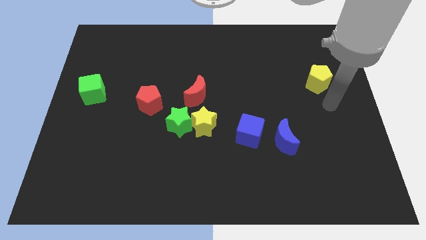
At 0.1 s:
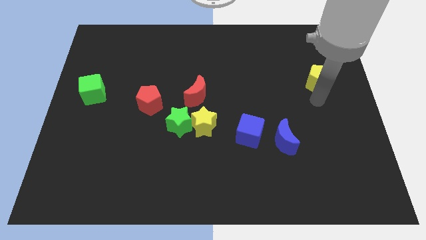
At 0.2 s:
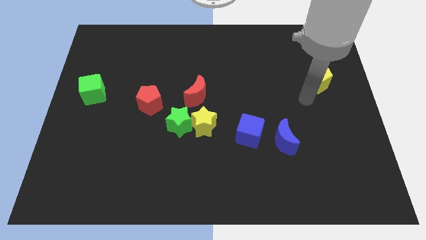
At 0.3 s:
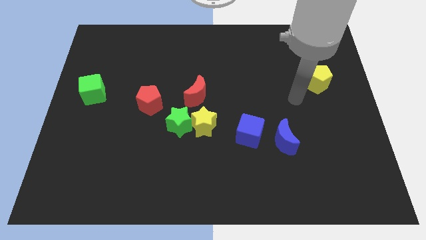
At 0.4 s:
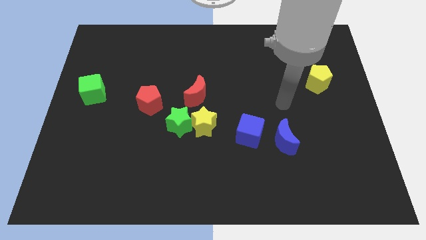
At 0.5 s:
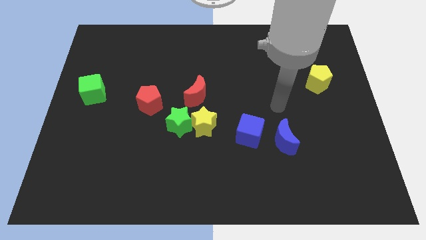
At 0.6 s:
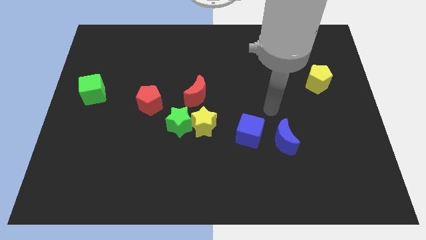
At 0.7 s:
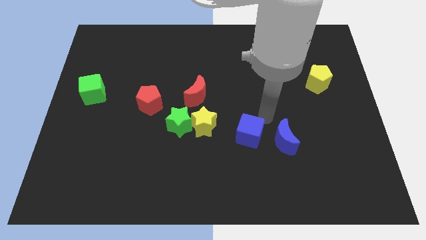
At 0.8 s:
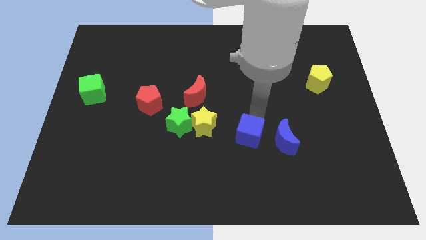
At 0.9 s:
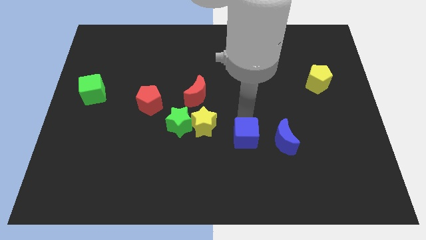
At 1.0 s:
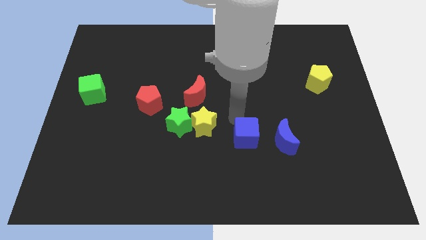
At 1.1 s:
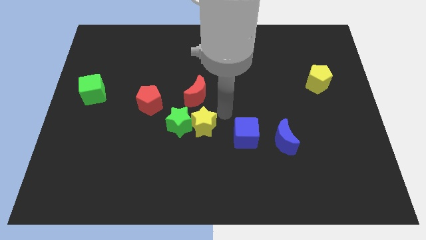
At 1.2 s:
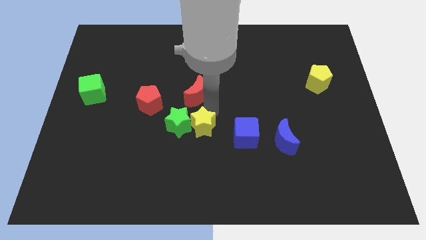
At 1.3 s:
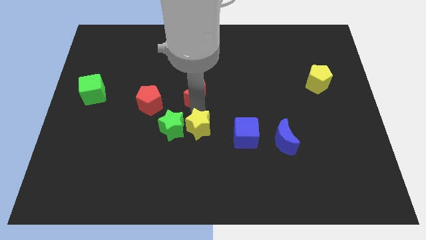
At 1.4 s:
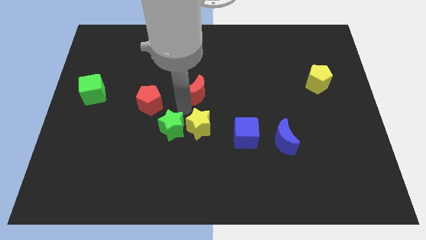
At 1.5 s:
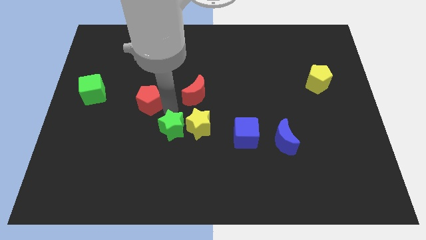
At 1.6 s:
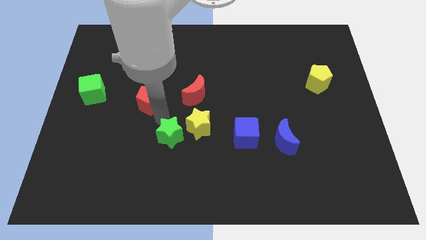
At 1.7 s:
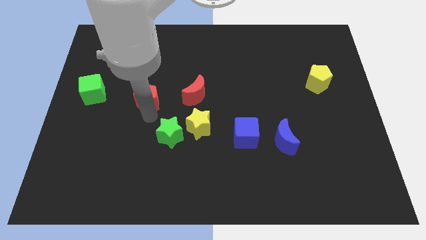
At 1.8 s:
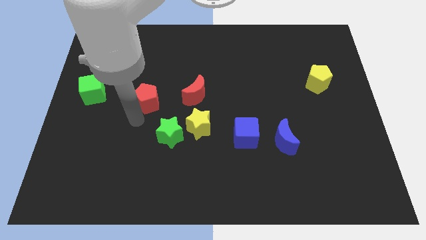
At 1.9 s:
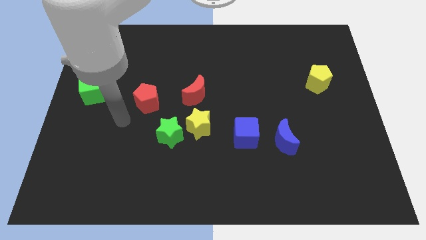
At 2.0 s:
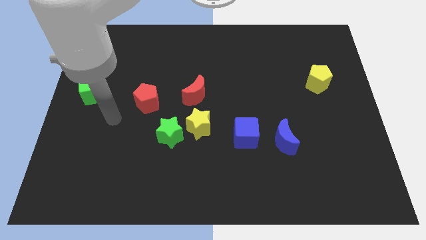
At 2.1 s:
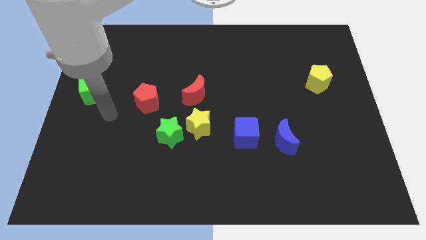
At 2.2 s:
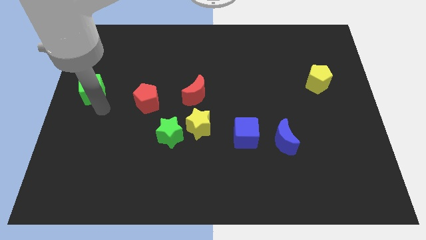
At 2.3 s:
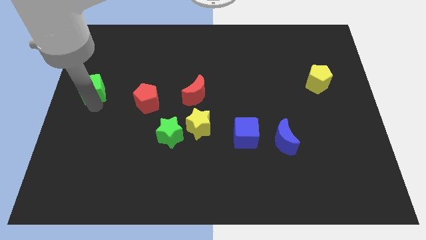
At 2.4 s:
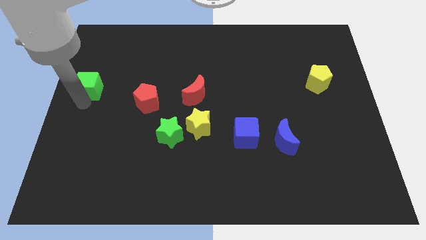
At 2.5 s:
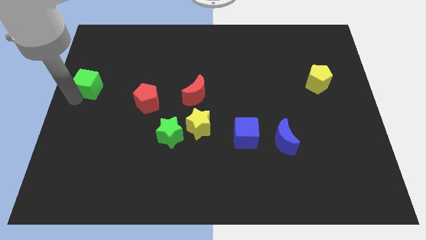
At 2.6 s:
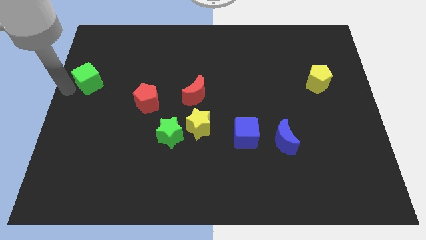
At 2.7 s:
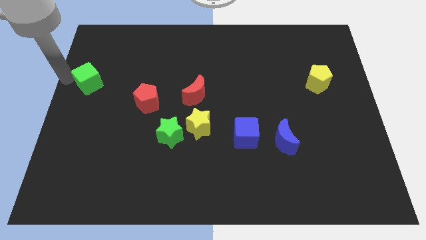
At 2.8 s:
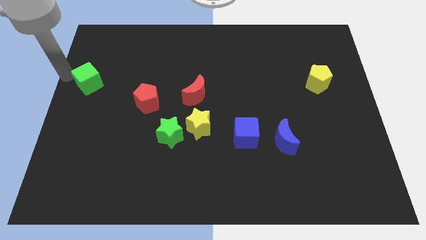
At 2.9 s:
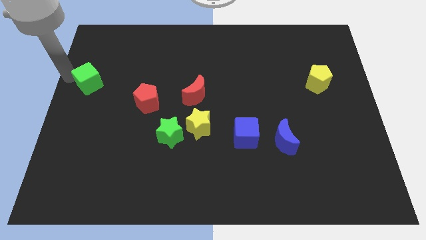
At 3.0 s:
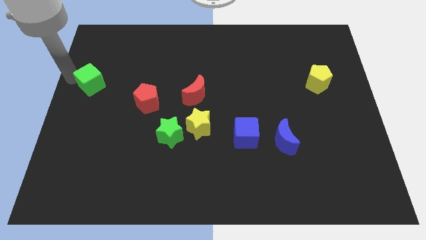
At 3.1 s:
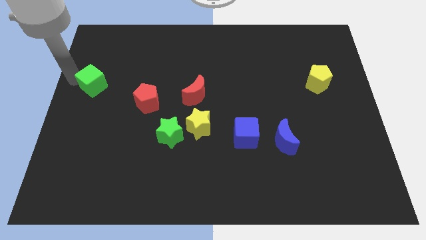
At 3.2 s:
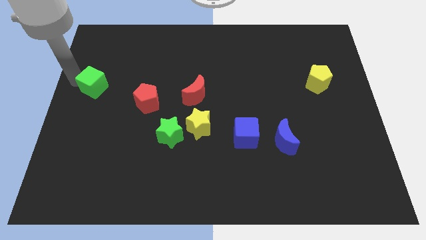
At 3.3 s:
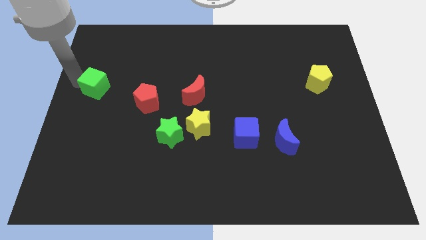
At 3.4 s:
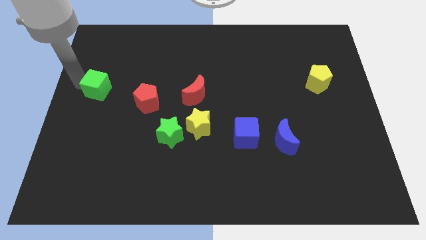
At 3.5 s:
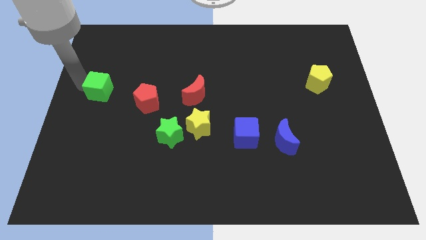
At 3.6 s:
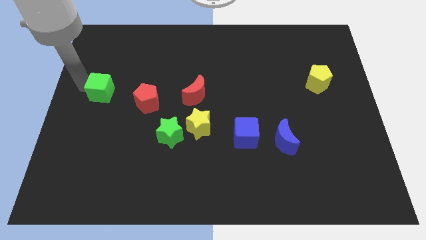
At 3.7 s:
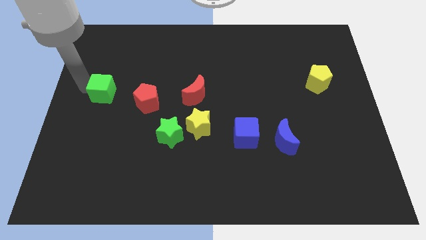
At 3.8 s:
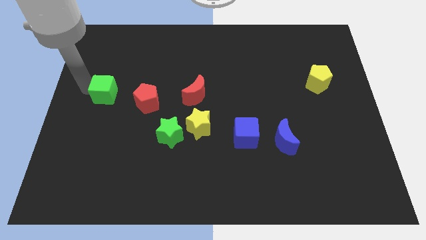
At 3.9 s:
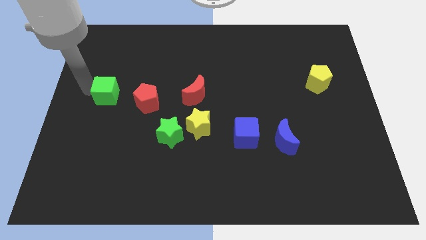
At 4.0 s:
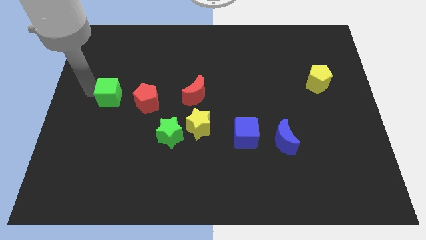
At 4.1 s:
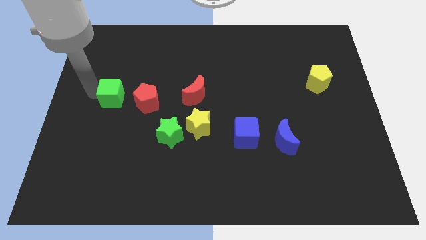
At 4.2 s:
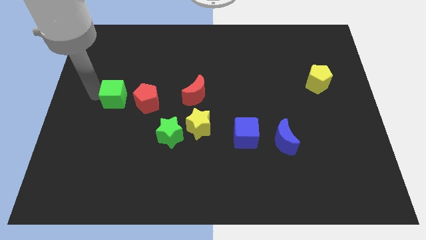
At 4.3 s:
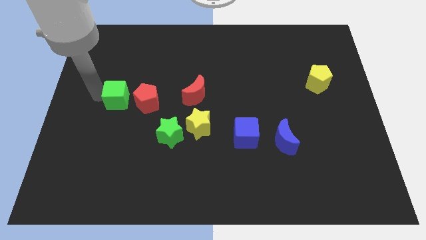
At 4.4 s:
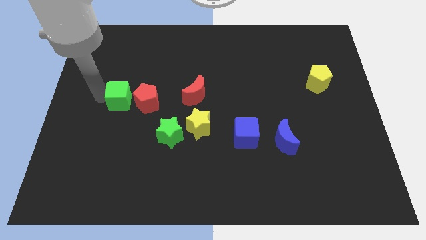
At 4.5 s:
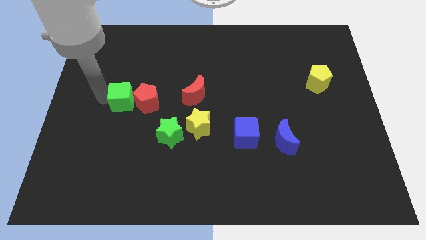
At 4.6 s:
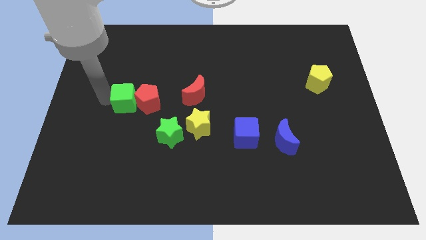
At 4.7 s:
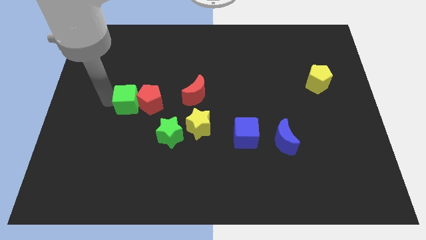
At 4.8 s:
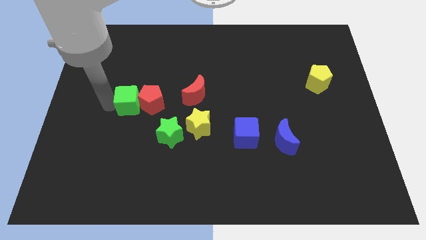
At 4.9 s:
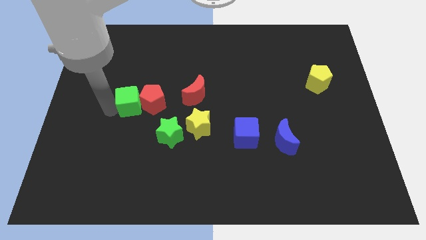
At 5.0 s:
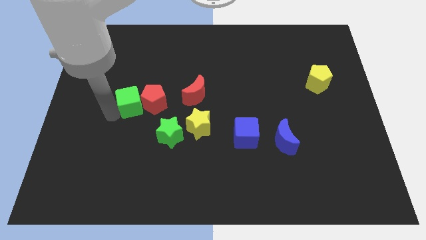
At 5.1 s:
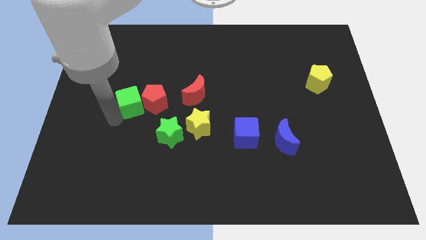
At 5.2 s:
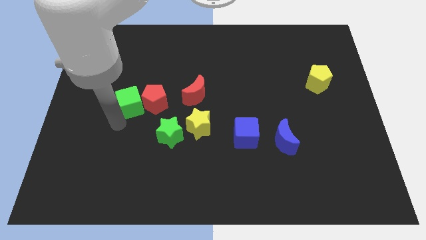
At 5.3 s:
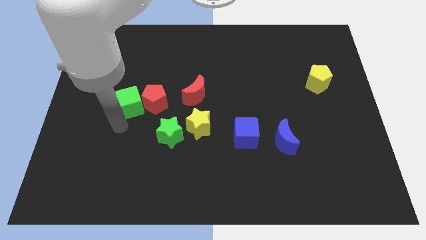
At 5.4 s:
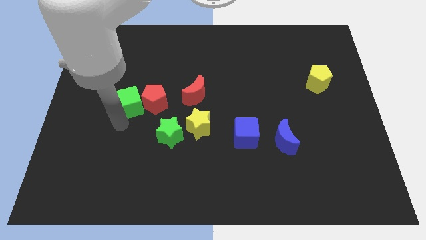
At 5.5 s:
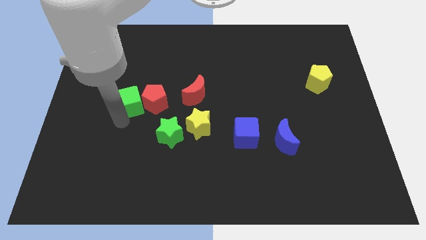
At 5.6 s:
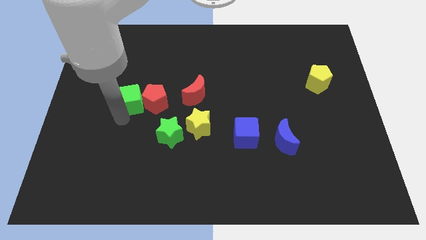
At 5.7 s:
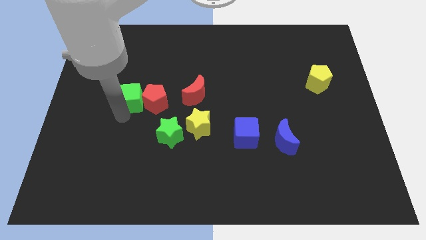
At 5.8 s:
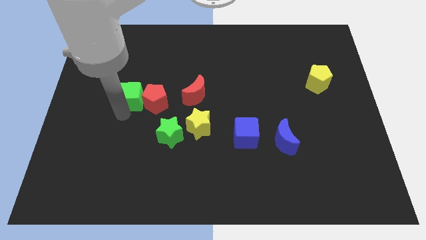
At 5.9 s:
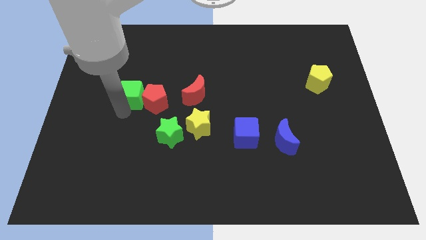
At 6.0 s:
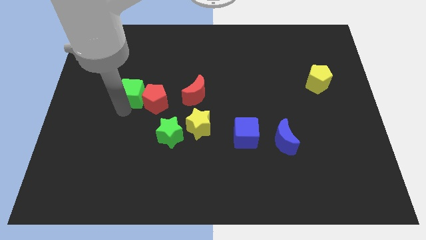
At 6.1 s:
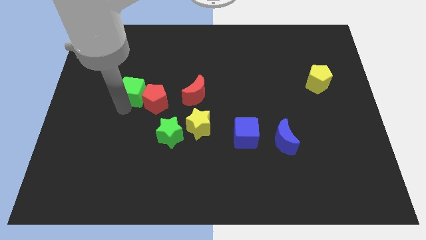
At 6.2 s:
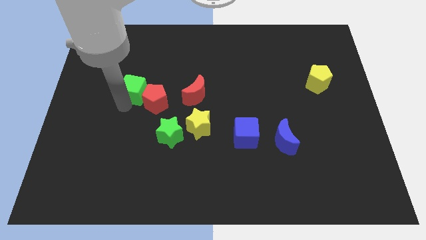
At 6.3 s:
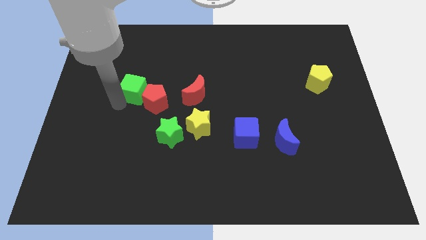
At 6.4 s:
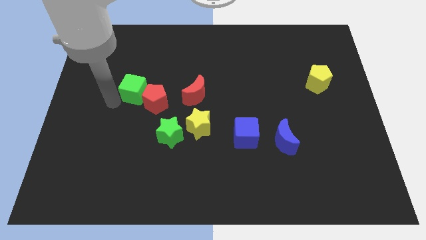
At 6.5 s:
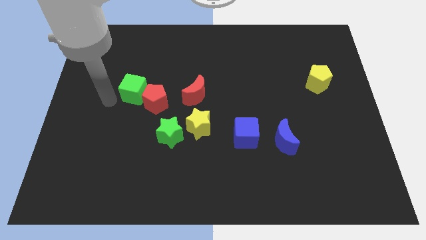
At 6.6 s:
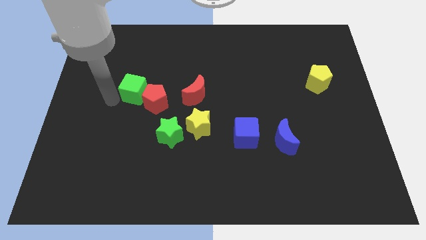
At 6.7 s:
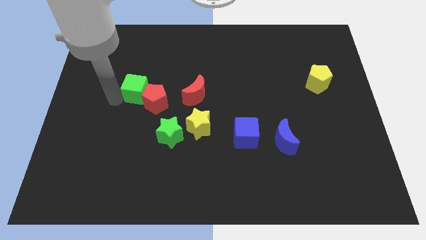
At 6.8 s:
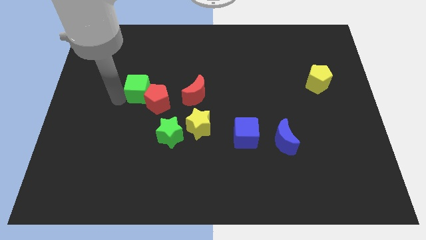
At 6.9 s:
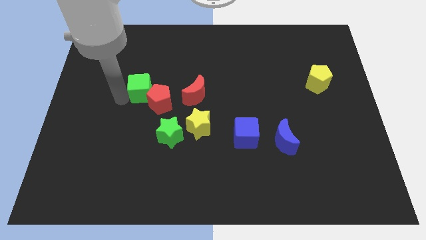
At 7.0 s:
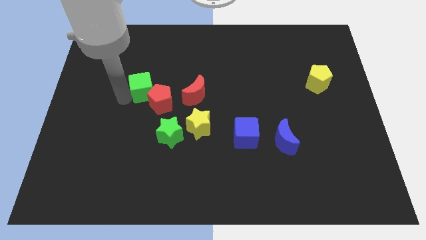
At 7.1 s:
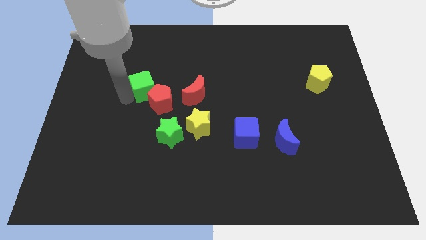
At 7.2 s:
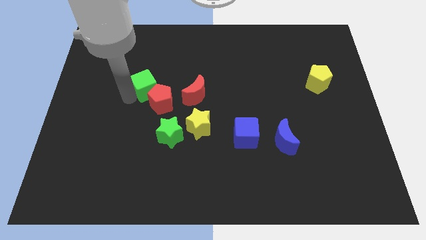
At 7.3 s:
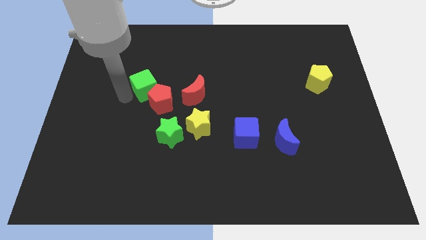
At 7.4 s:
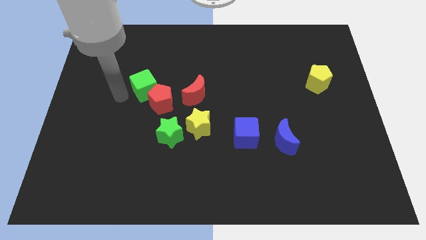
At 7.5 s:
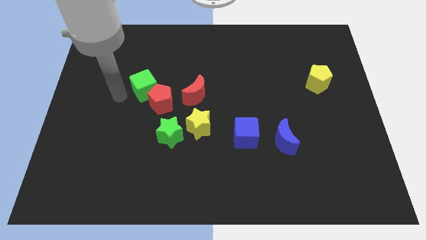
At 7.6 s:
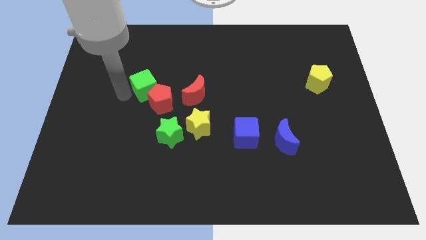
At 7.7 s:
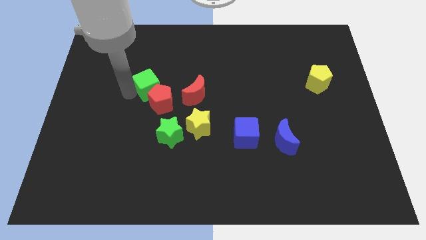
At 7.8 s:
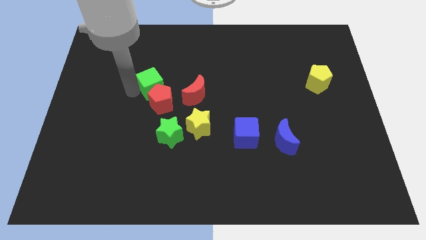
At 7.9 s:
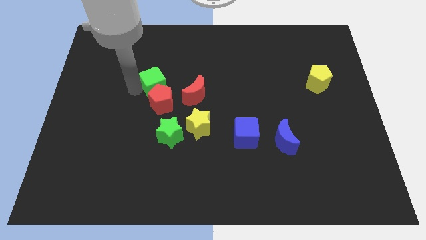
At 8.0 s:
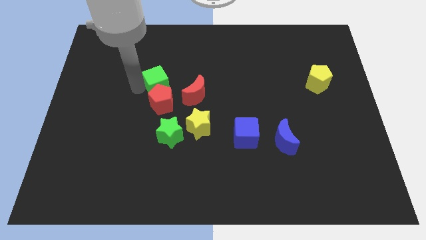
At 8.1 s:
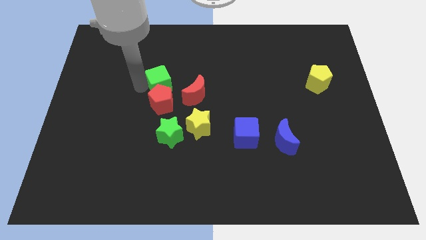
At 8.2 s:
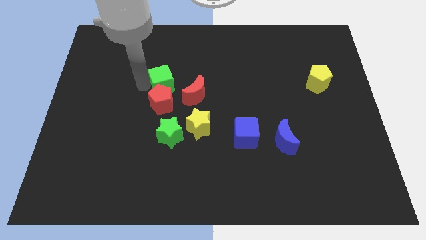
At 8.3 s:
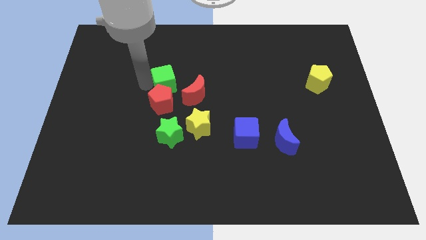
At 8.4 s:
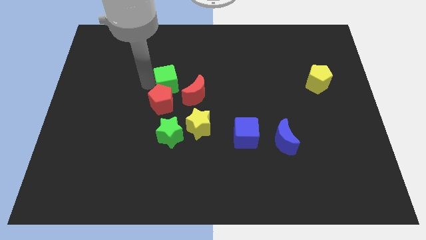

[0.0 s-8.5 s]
put the green cube to the middle
